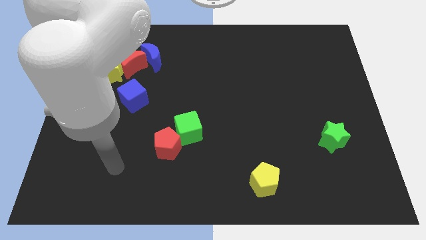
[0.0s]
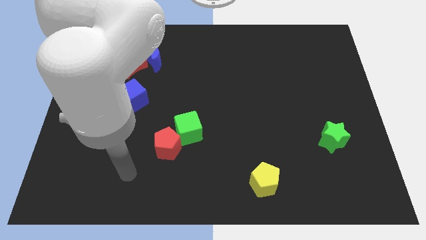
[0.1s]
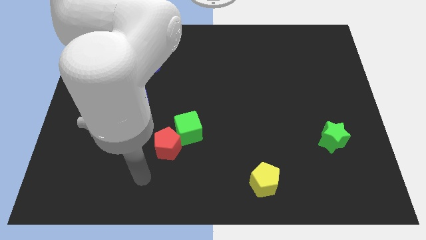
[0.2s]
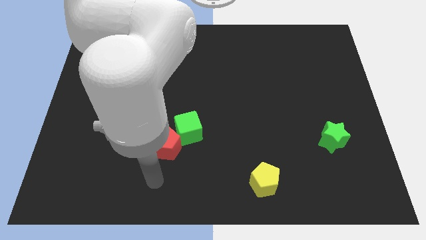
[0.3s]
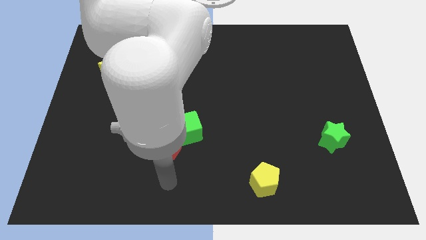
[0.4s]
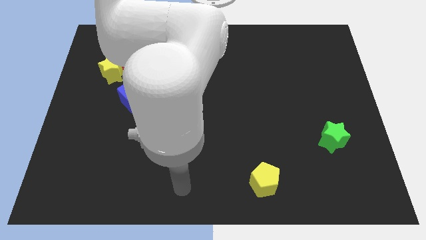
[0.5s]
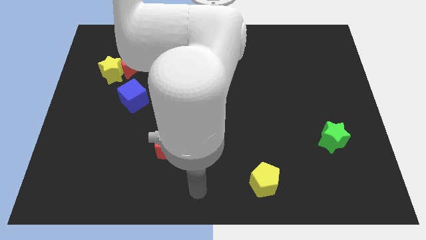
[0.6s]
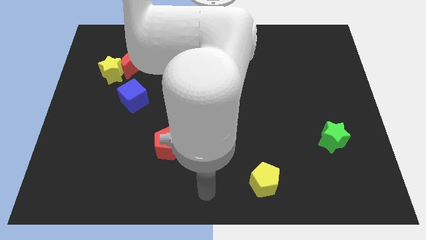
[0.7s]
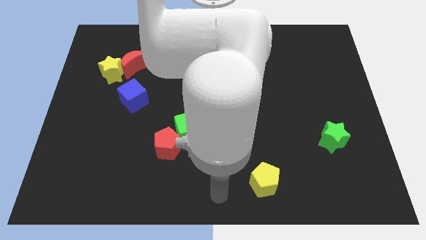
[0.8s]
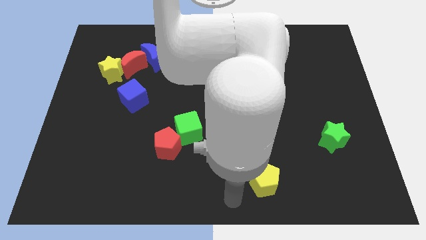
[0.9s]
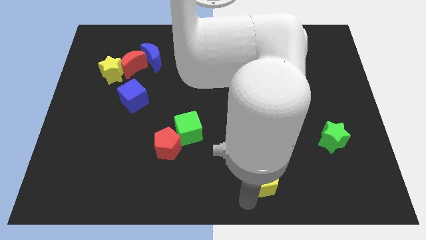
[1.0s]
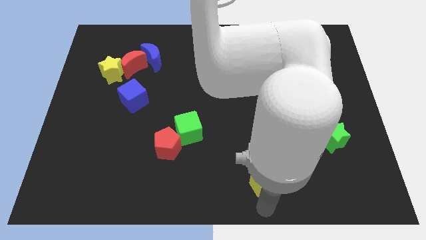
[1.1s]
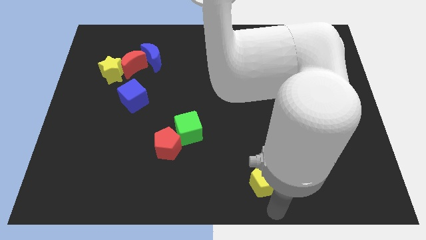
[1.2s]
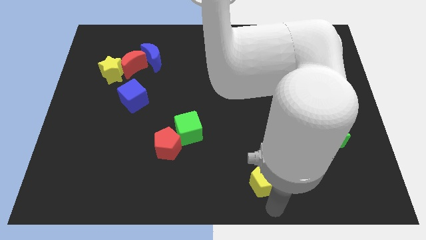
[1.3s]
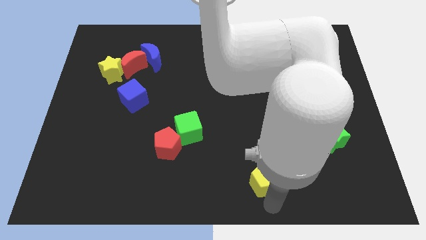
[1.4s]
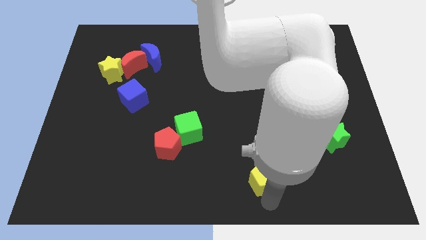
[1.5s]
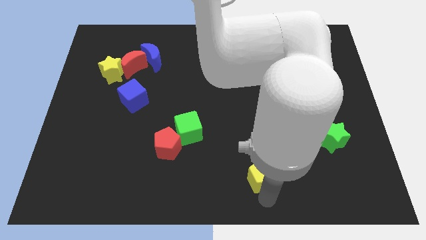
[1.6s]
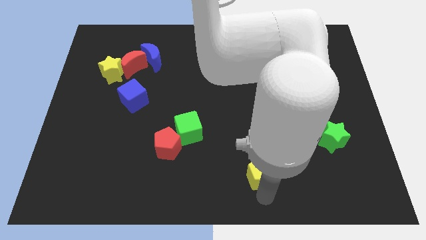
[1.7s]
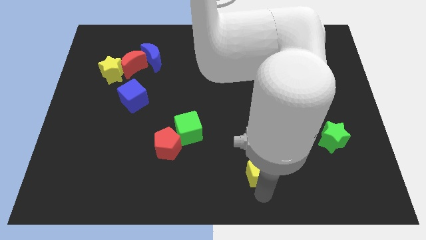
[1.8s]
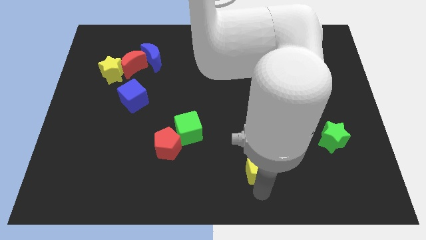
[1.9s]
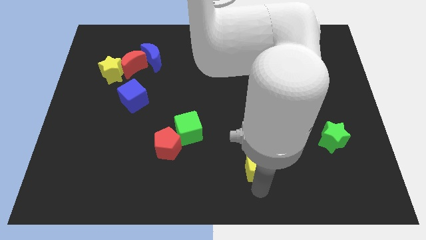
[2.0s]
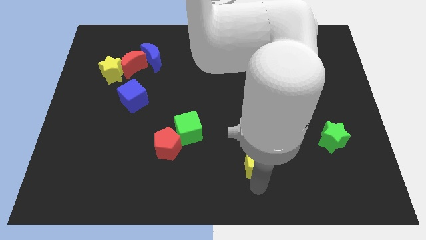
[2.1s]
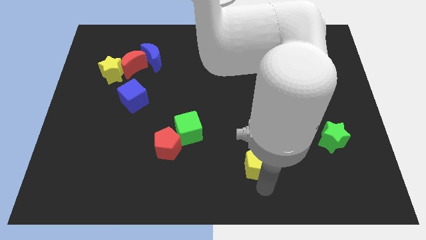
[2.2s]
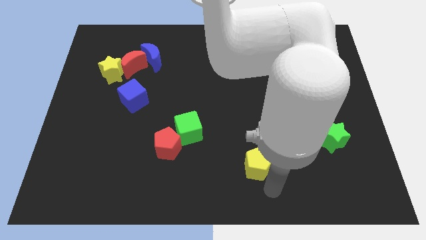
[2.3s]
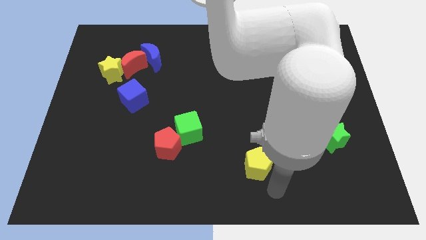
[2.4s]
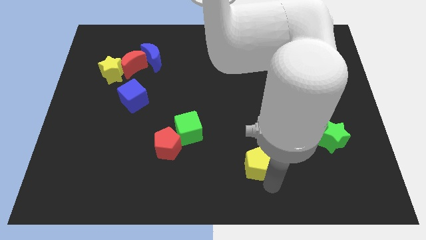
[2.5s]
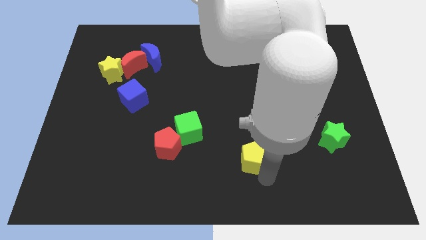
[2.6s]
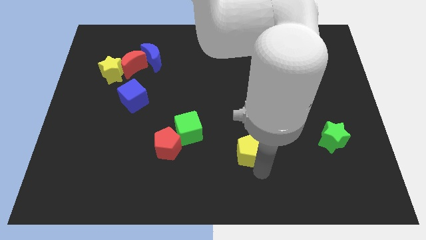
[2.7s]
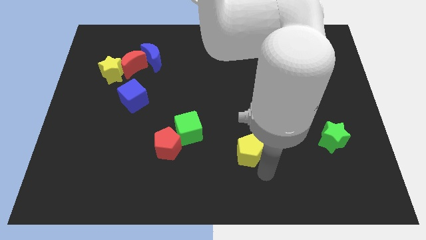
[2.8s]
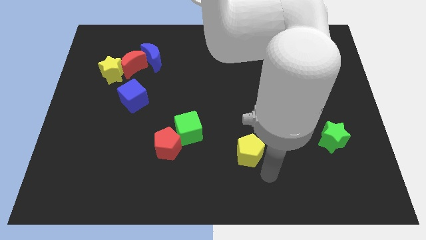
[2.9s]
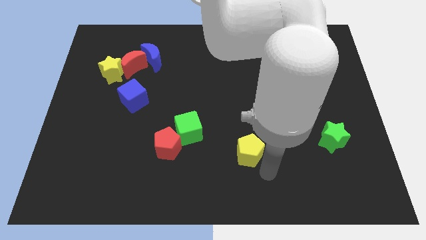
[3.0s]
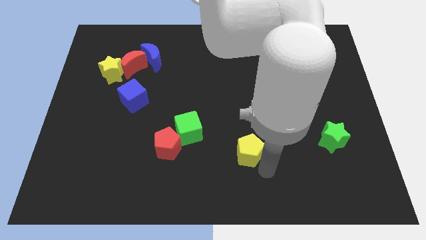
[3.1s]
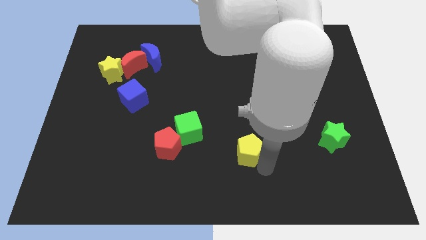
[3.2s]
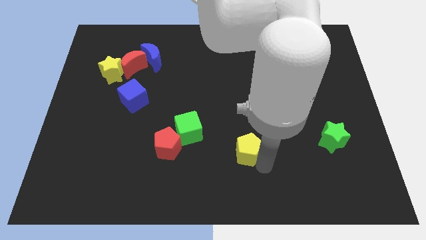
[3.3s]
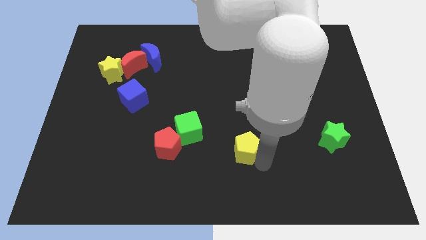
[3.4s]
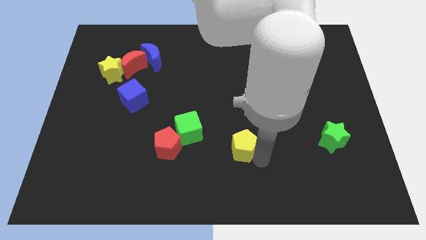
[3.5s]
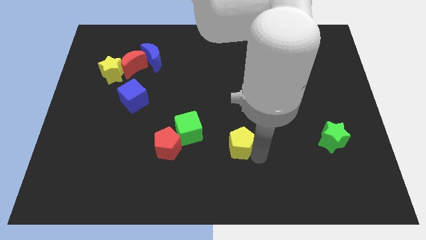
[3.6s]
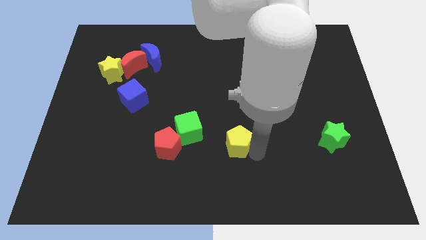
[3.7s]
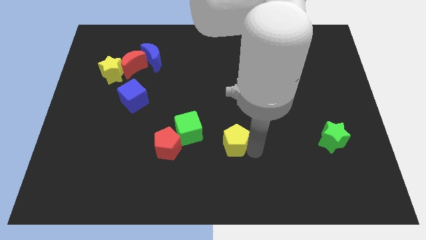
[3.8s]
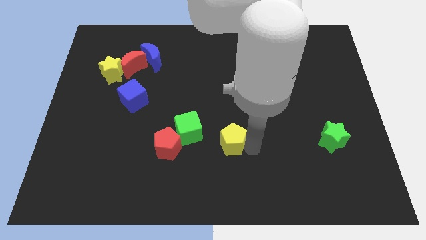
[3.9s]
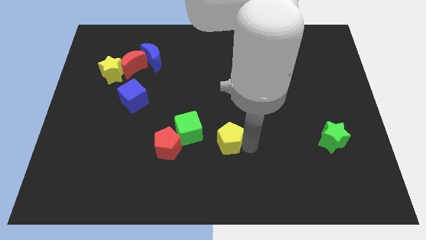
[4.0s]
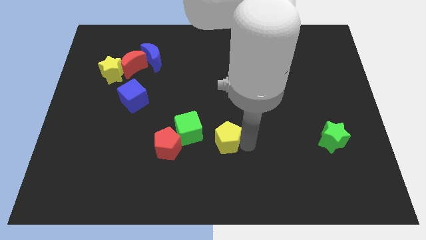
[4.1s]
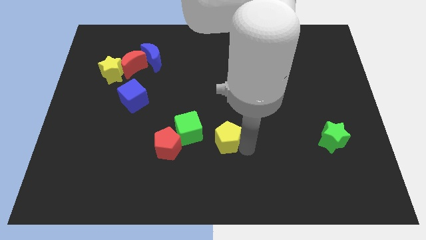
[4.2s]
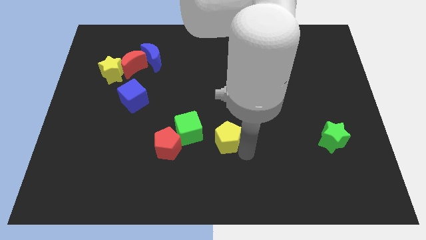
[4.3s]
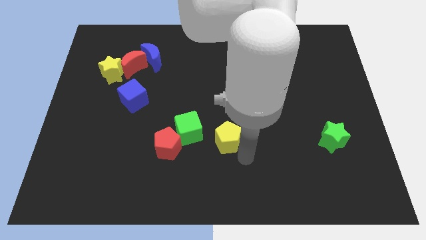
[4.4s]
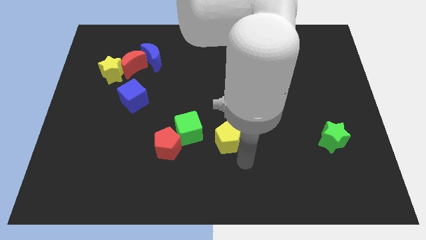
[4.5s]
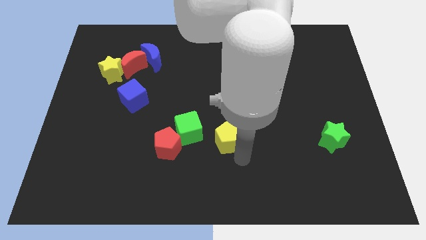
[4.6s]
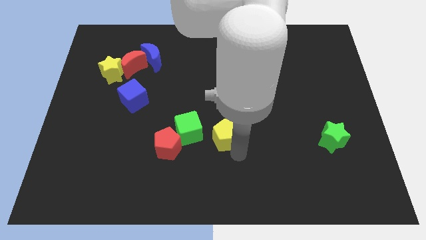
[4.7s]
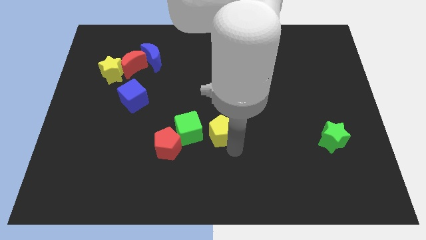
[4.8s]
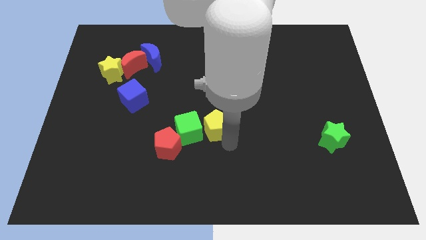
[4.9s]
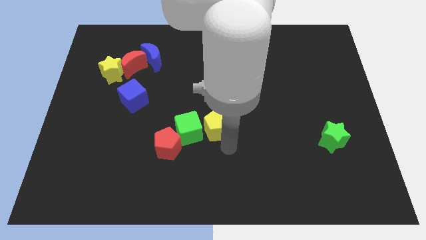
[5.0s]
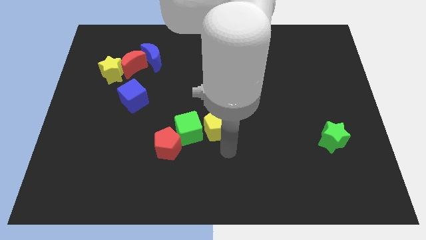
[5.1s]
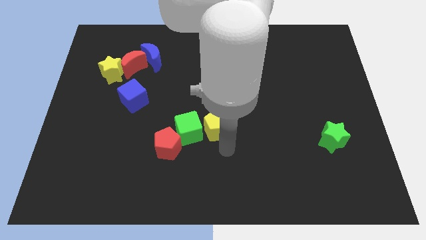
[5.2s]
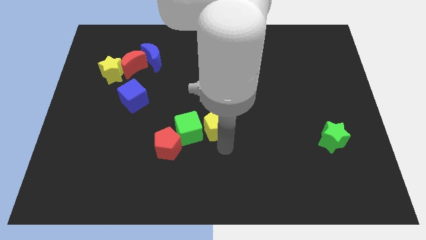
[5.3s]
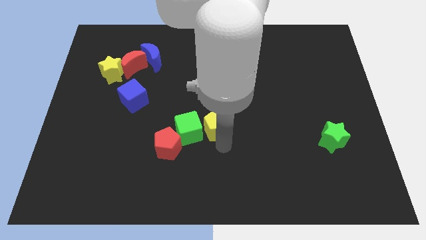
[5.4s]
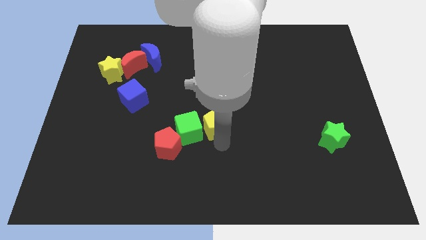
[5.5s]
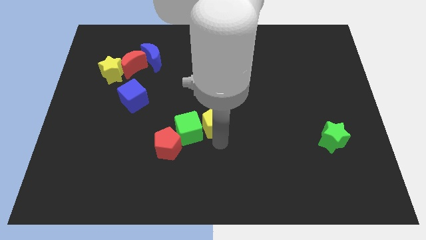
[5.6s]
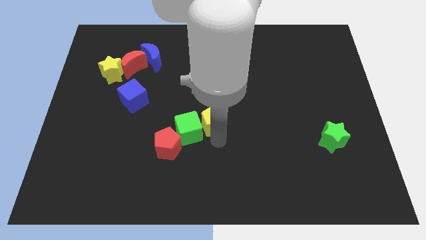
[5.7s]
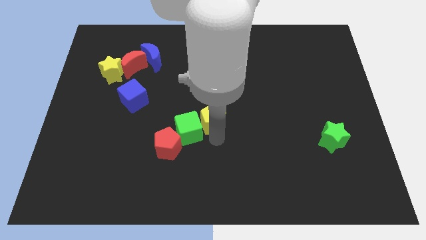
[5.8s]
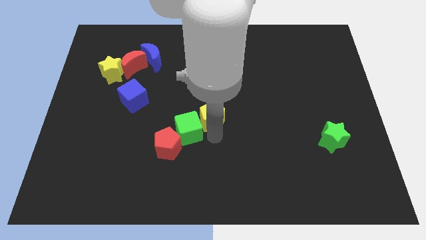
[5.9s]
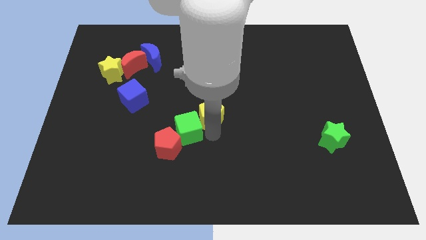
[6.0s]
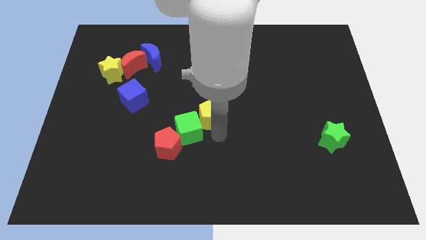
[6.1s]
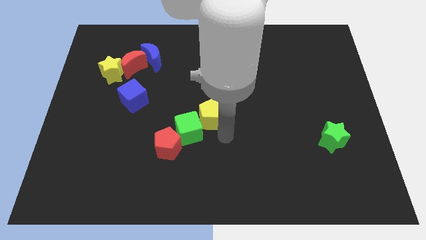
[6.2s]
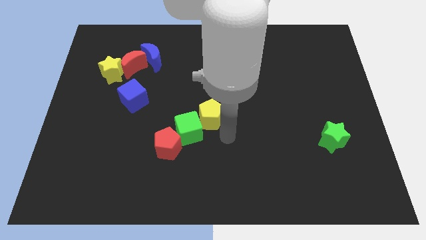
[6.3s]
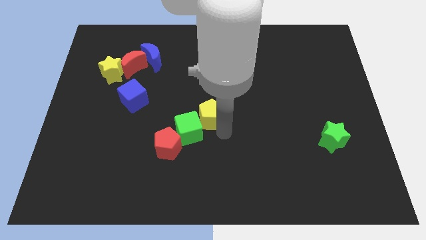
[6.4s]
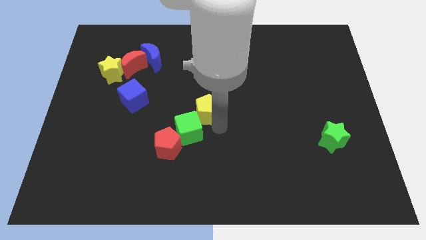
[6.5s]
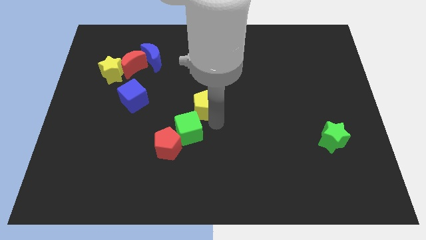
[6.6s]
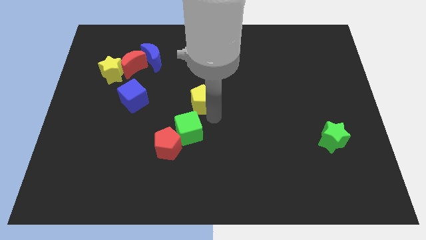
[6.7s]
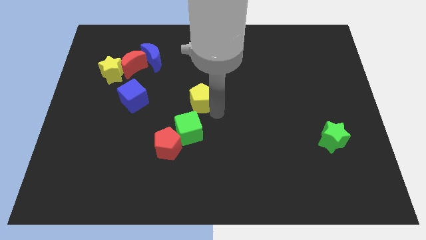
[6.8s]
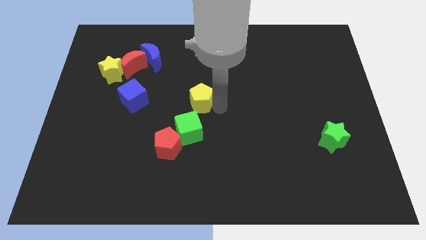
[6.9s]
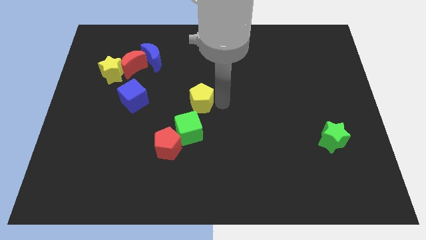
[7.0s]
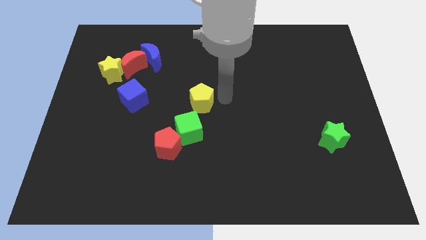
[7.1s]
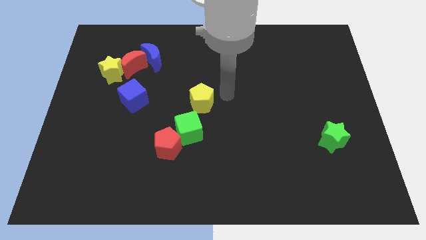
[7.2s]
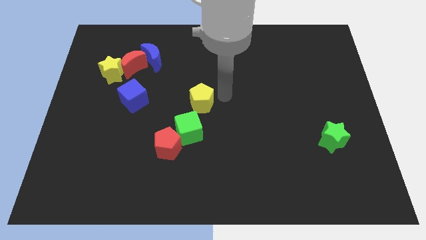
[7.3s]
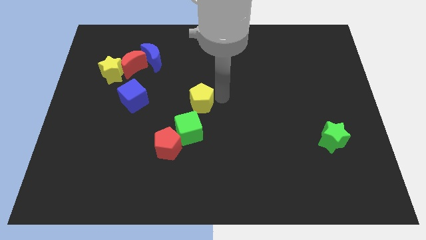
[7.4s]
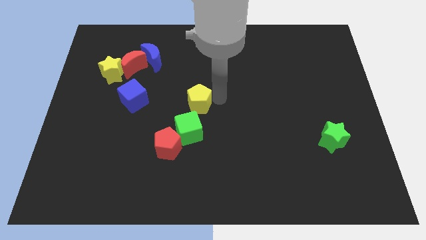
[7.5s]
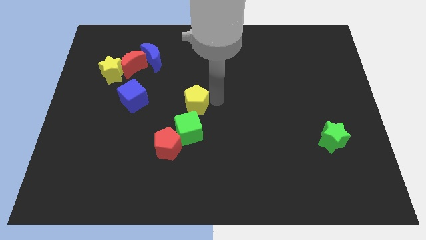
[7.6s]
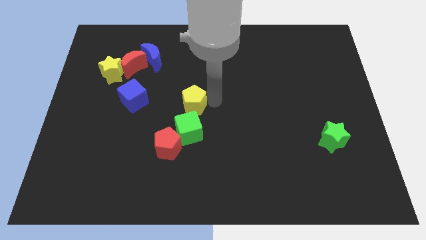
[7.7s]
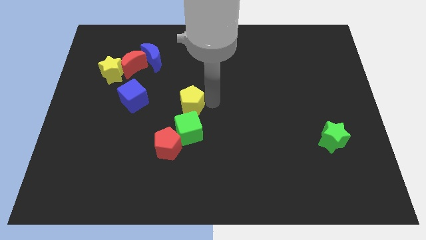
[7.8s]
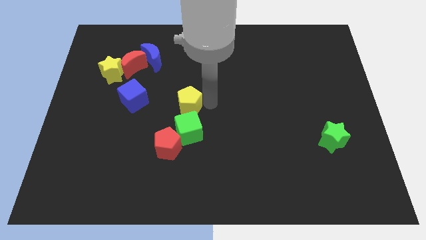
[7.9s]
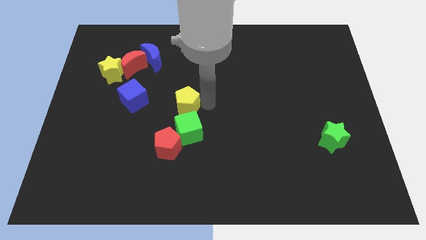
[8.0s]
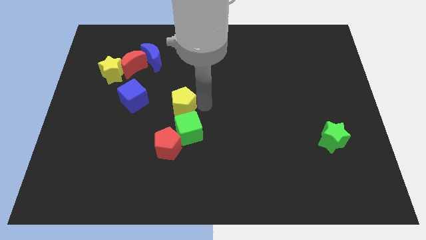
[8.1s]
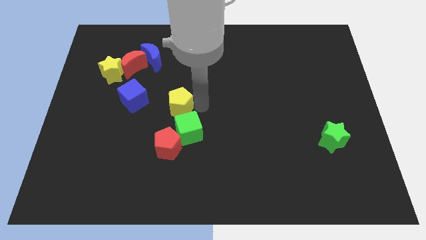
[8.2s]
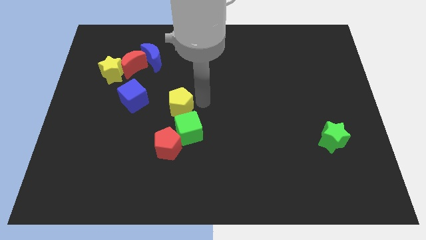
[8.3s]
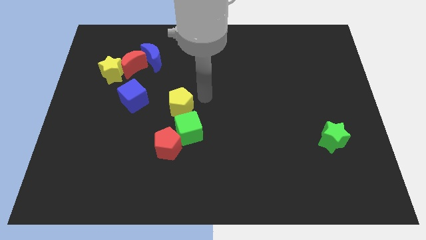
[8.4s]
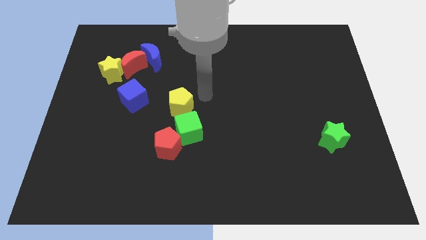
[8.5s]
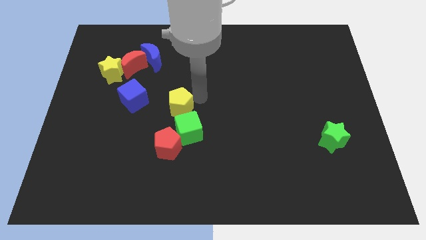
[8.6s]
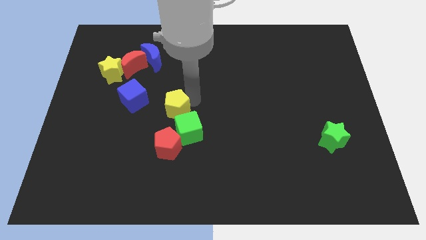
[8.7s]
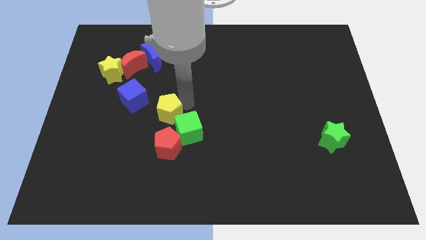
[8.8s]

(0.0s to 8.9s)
move the yellow pentagon to the bottom right of the blue cube
